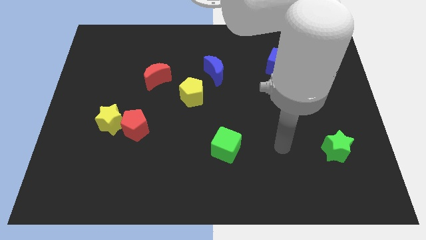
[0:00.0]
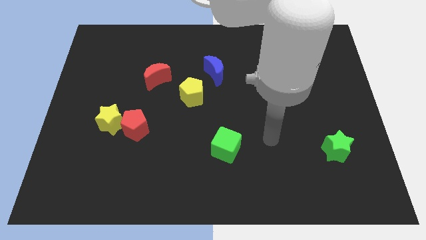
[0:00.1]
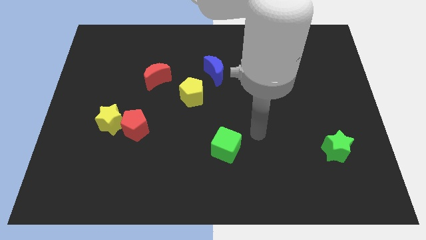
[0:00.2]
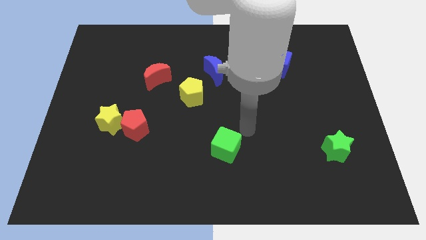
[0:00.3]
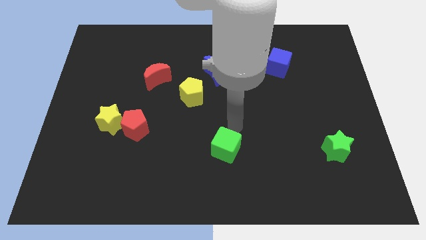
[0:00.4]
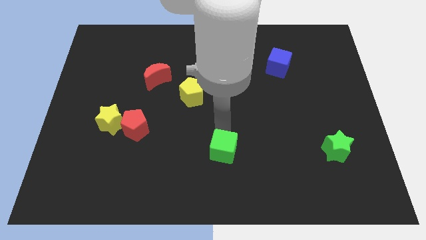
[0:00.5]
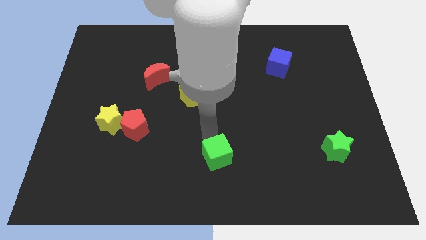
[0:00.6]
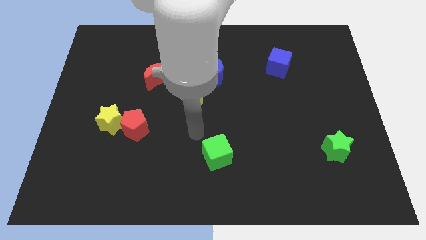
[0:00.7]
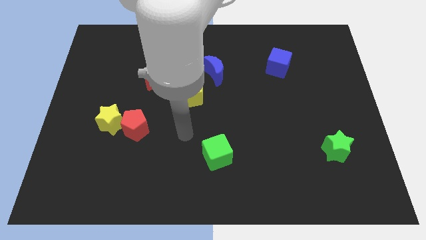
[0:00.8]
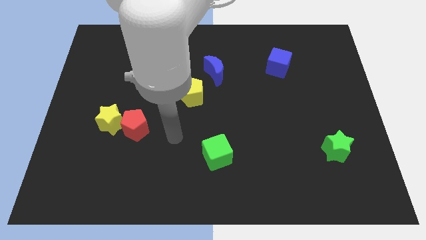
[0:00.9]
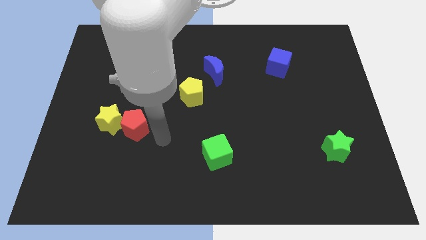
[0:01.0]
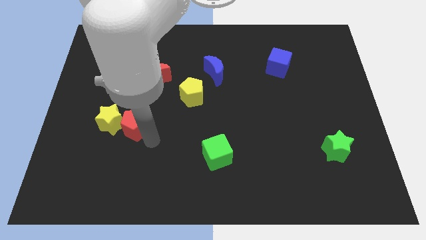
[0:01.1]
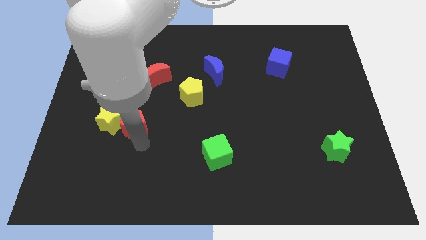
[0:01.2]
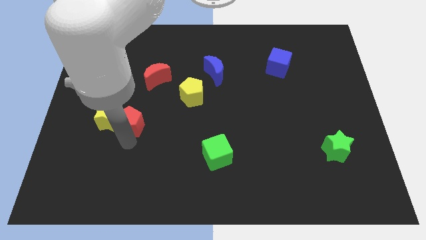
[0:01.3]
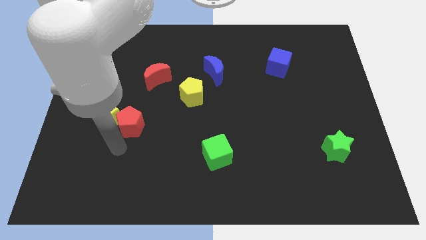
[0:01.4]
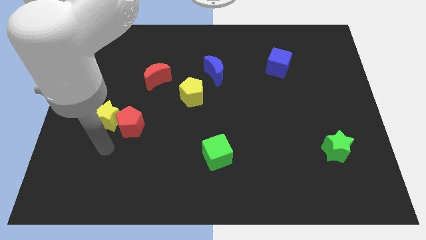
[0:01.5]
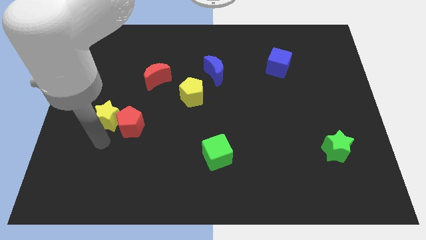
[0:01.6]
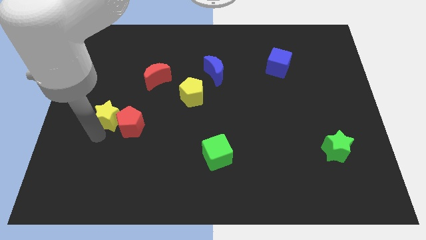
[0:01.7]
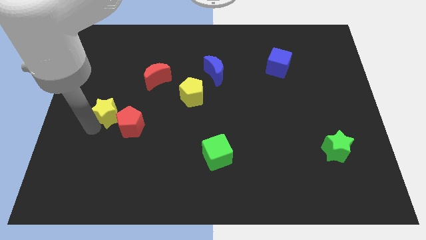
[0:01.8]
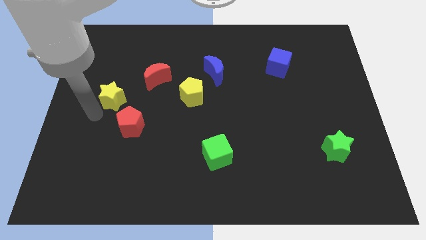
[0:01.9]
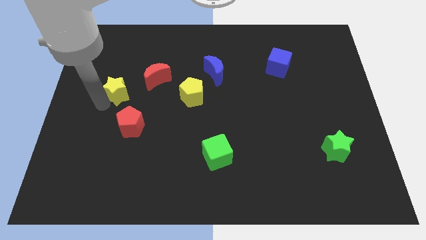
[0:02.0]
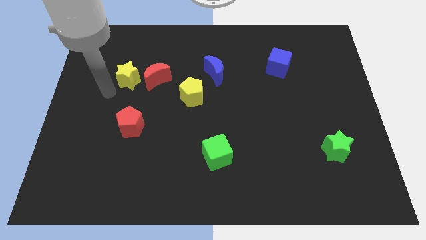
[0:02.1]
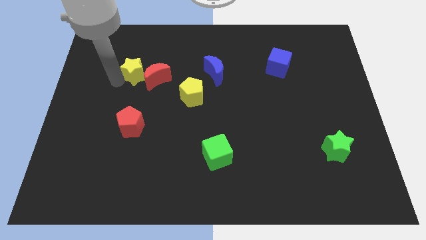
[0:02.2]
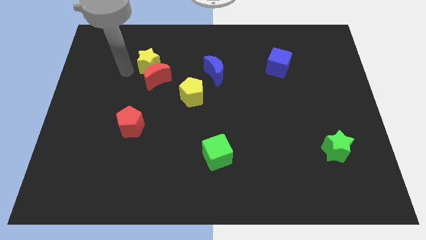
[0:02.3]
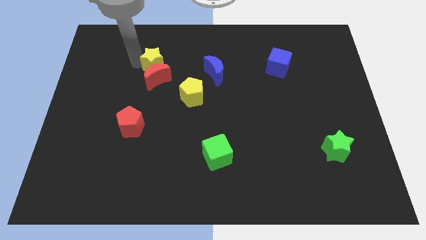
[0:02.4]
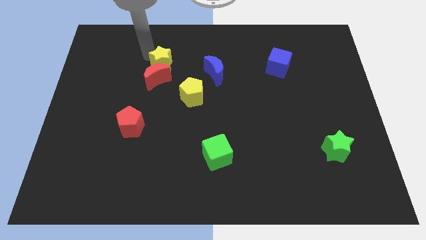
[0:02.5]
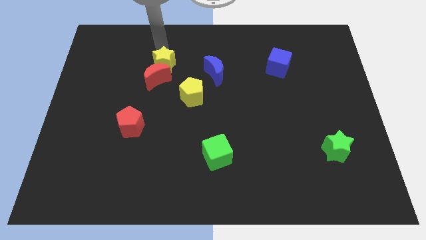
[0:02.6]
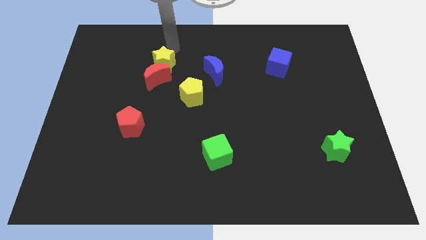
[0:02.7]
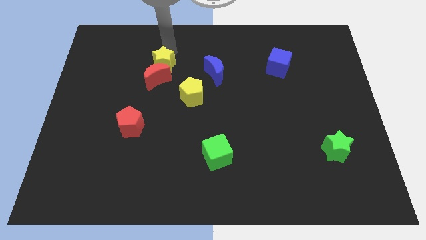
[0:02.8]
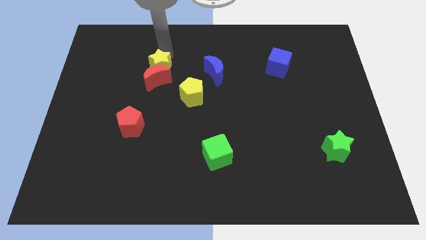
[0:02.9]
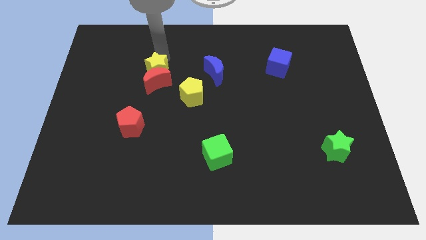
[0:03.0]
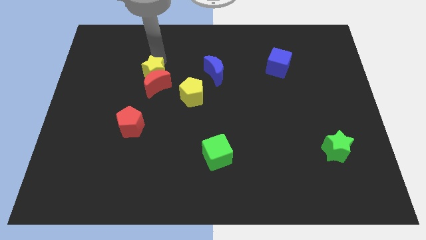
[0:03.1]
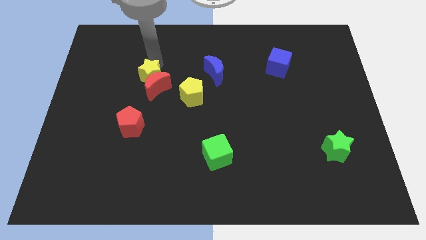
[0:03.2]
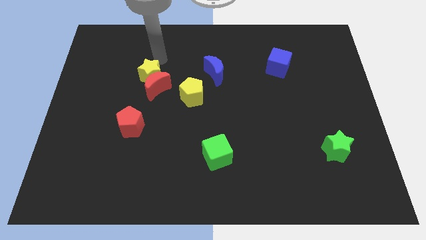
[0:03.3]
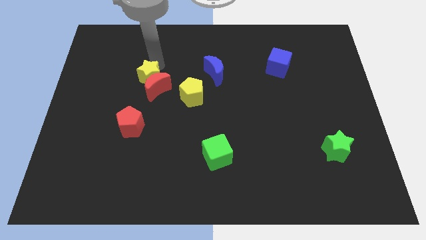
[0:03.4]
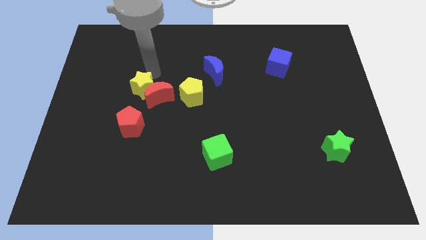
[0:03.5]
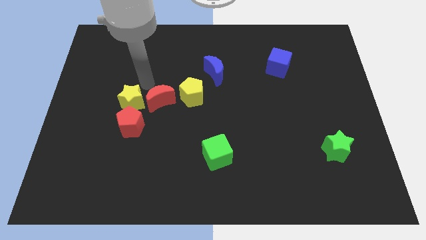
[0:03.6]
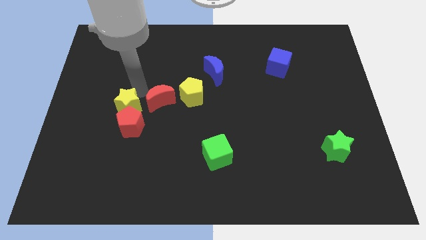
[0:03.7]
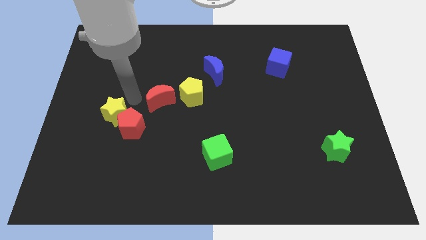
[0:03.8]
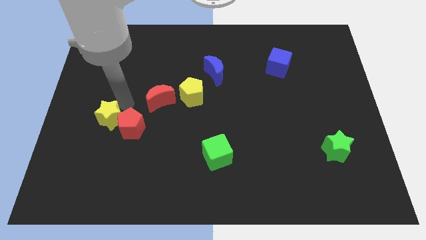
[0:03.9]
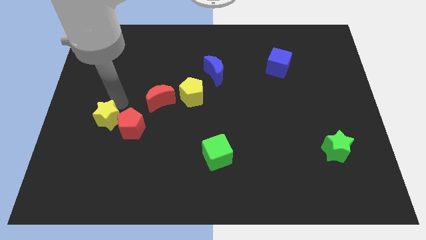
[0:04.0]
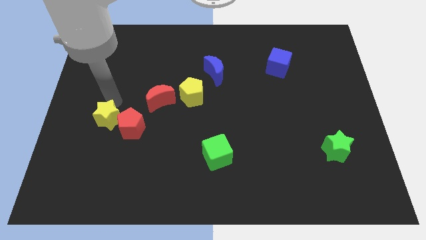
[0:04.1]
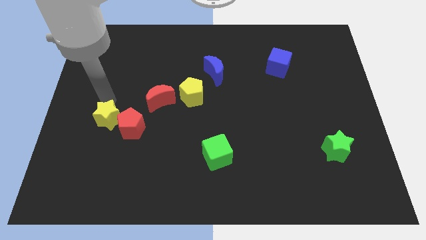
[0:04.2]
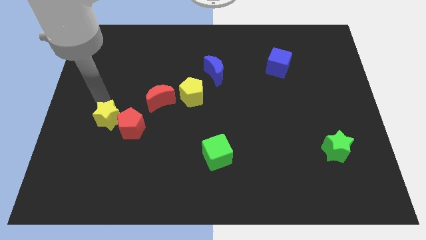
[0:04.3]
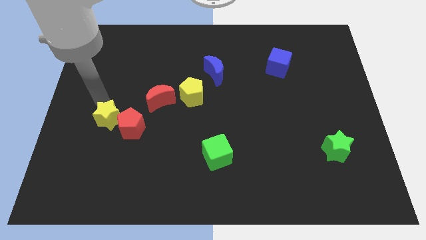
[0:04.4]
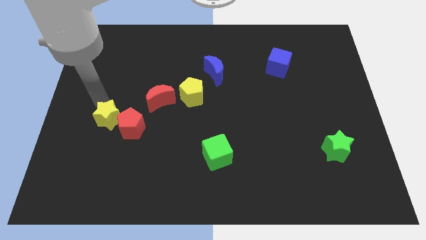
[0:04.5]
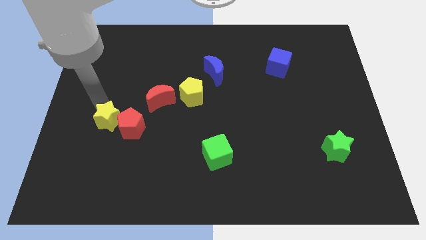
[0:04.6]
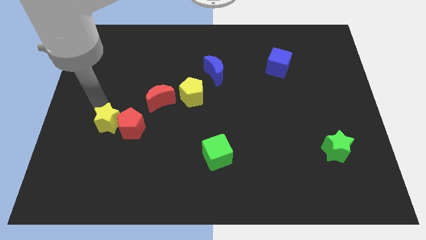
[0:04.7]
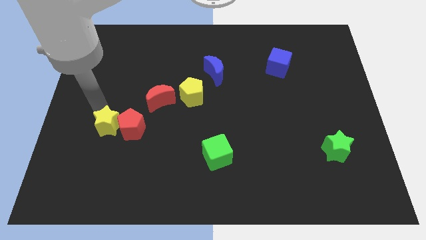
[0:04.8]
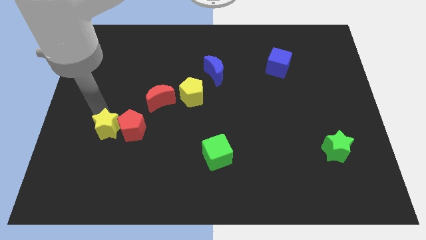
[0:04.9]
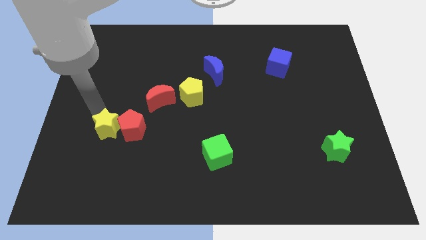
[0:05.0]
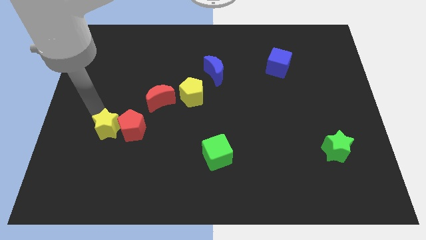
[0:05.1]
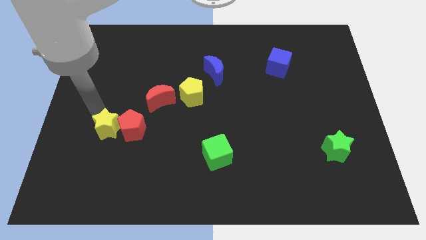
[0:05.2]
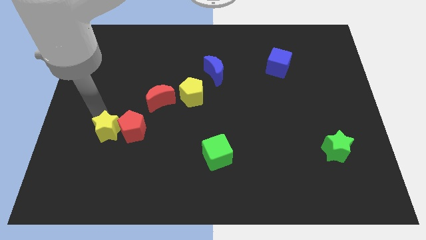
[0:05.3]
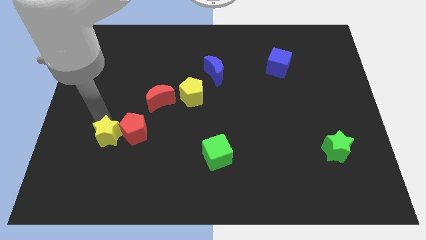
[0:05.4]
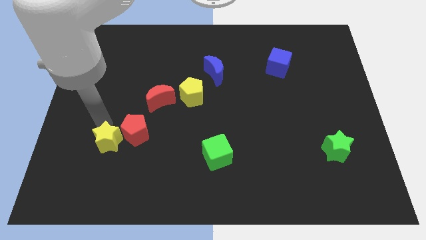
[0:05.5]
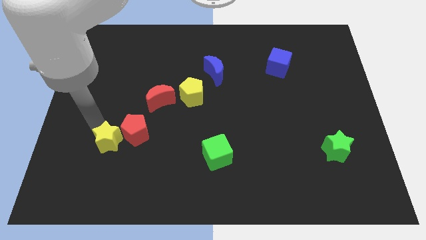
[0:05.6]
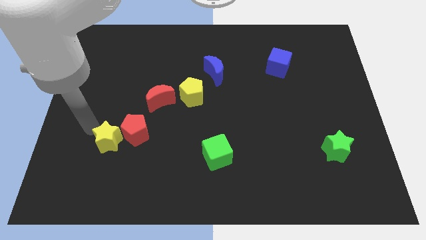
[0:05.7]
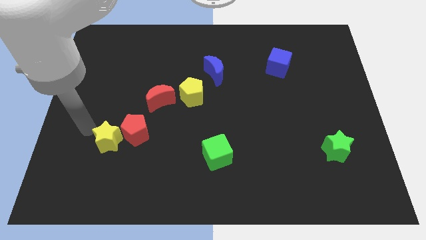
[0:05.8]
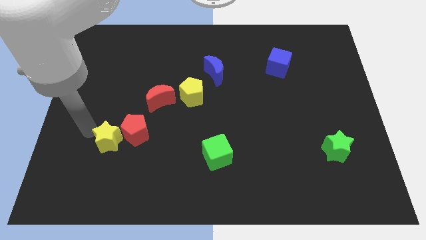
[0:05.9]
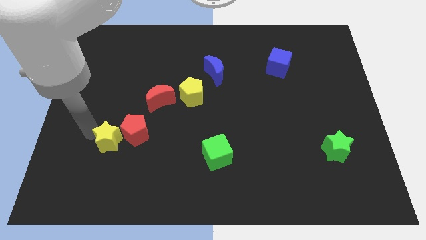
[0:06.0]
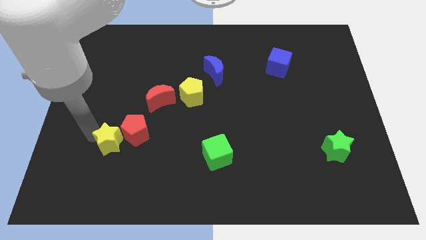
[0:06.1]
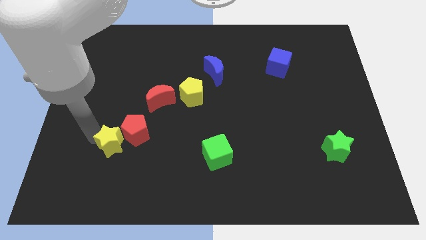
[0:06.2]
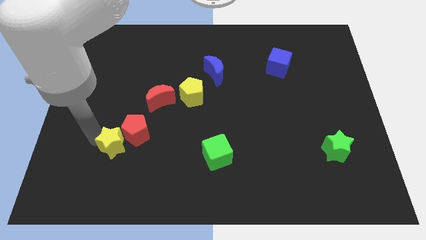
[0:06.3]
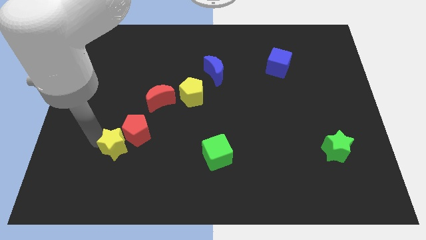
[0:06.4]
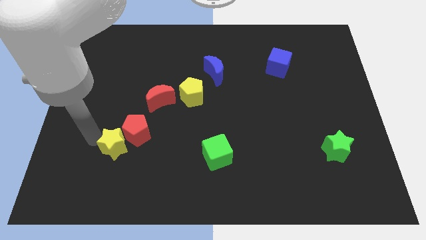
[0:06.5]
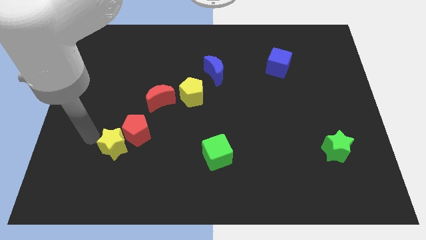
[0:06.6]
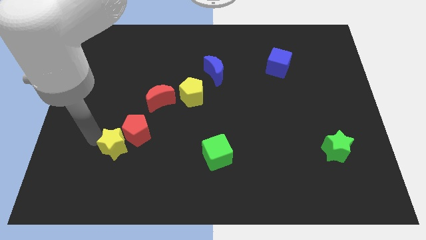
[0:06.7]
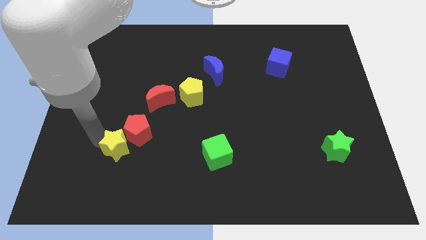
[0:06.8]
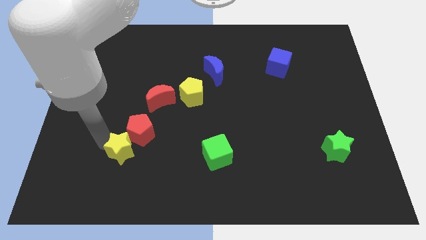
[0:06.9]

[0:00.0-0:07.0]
slightly push the yellow star diagonally downwards and right

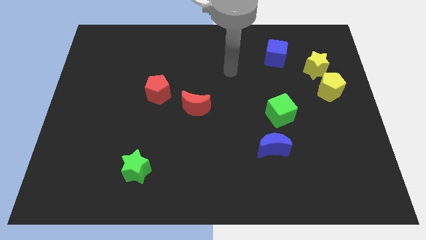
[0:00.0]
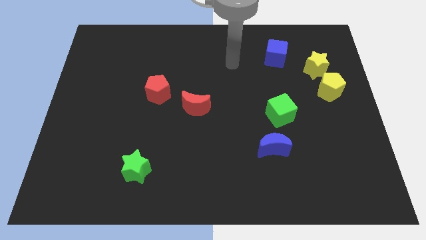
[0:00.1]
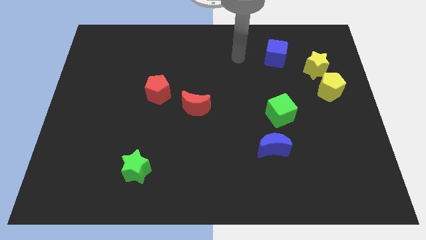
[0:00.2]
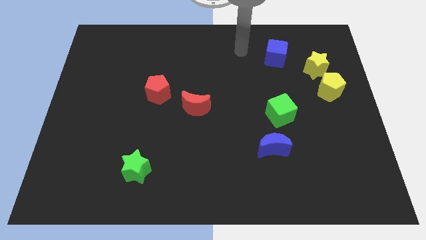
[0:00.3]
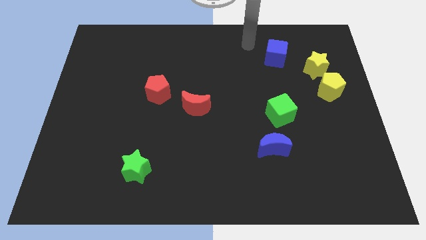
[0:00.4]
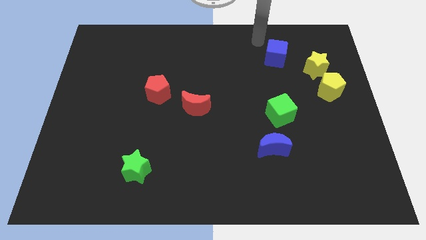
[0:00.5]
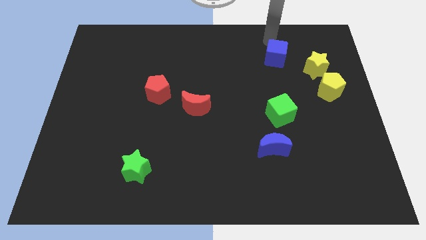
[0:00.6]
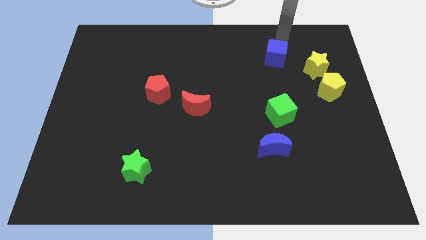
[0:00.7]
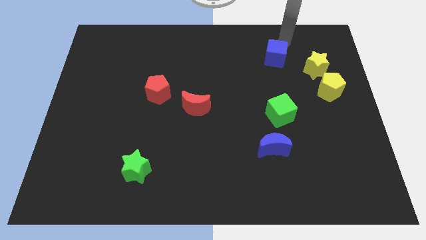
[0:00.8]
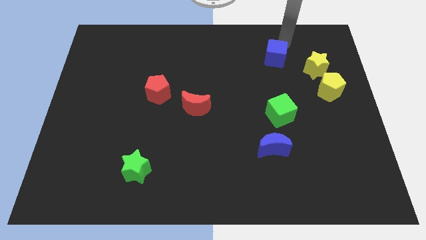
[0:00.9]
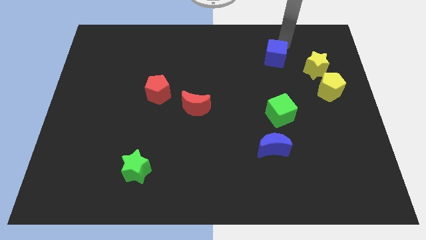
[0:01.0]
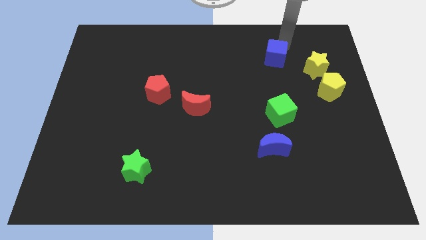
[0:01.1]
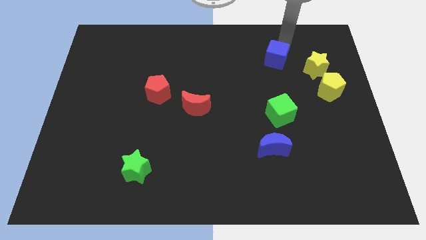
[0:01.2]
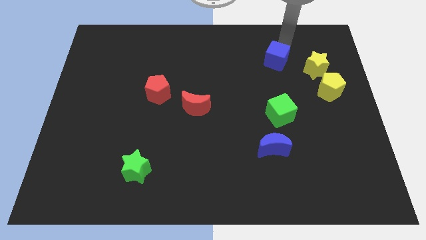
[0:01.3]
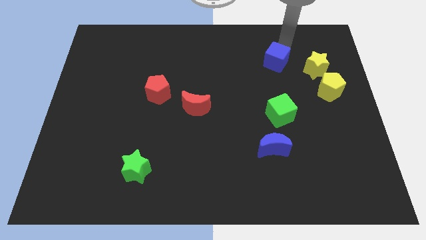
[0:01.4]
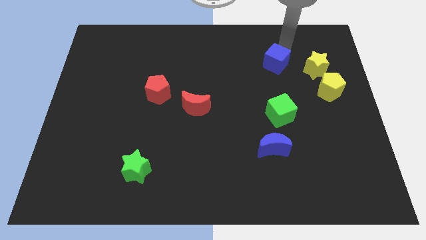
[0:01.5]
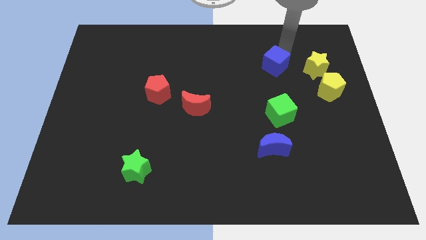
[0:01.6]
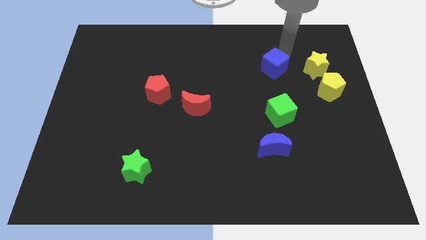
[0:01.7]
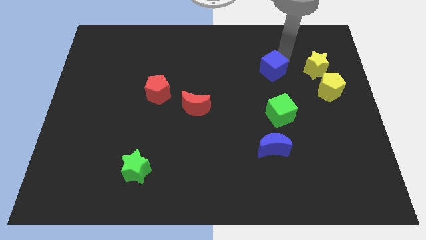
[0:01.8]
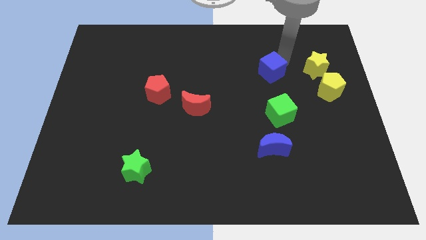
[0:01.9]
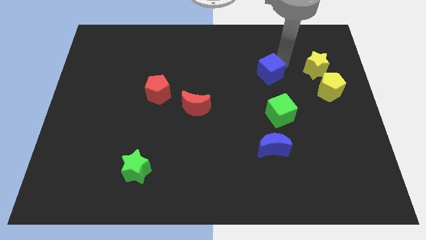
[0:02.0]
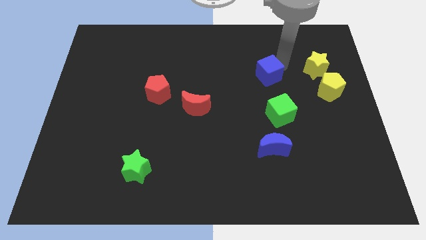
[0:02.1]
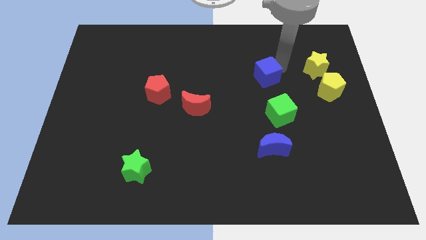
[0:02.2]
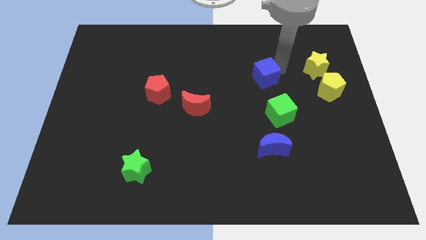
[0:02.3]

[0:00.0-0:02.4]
slide the blue cube a little downwards and then to the left
